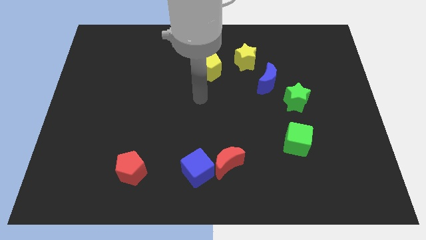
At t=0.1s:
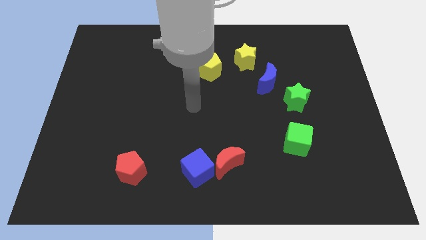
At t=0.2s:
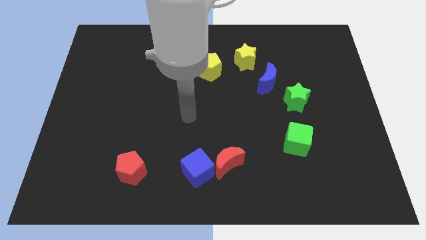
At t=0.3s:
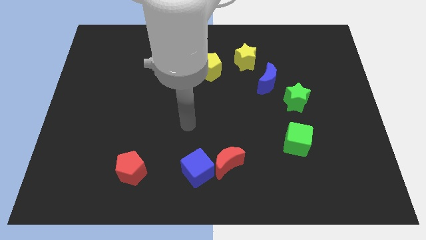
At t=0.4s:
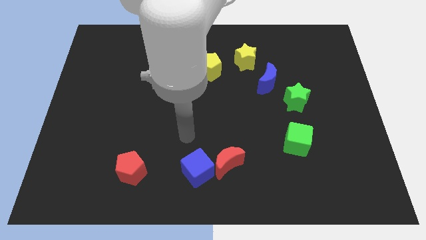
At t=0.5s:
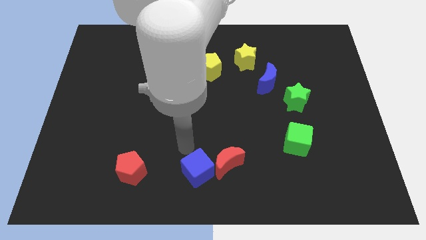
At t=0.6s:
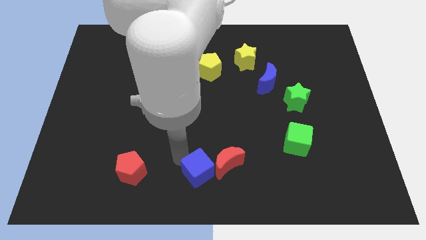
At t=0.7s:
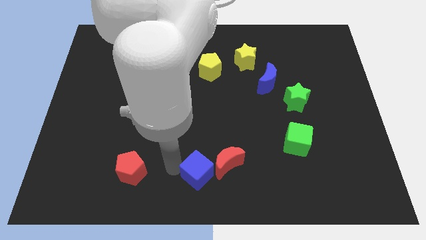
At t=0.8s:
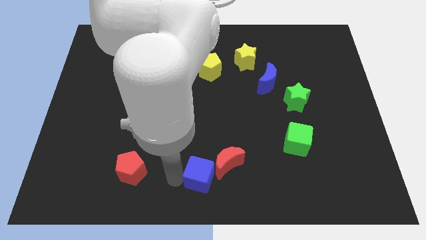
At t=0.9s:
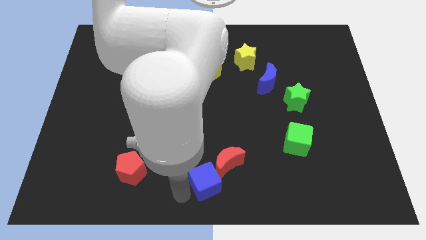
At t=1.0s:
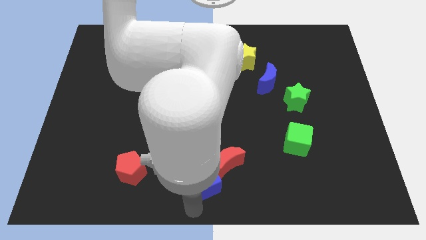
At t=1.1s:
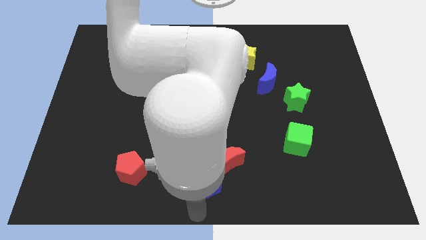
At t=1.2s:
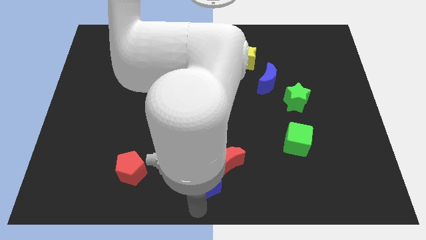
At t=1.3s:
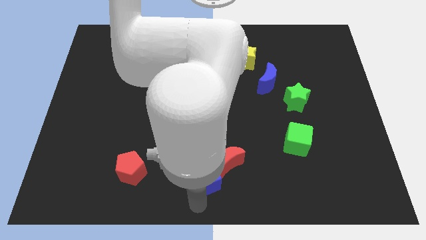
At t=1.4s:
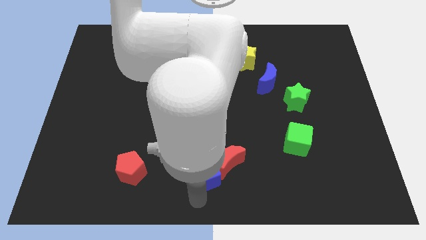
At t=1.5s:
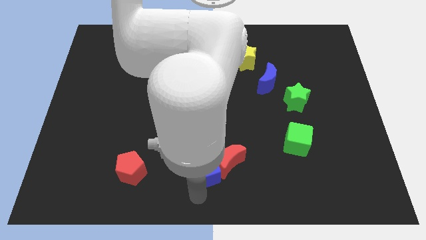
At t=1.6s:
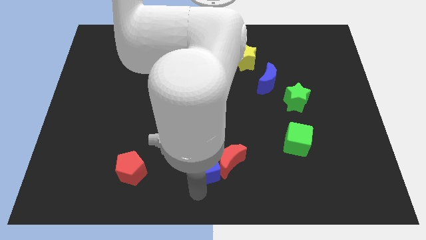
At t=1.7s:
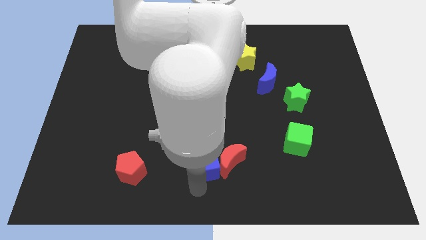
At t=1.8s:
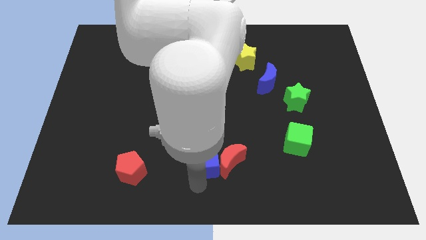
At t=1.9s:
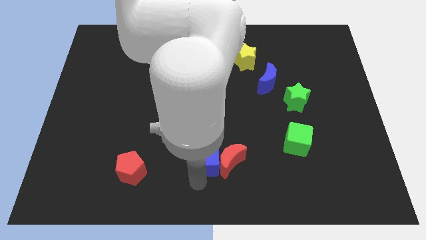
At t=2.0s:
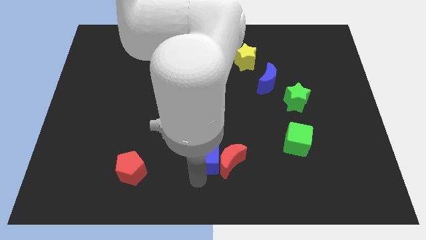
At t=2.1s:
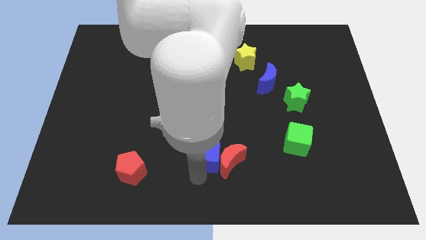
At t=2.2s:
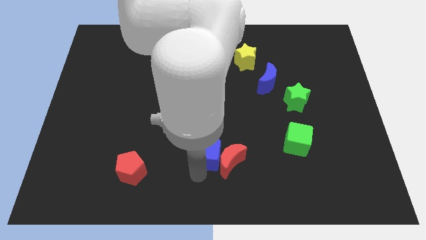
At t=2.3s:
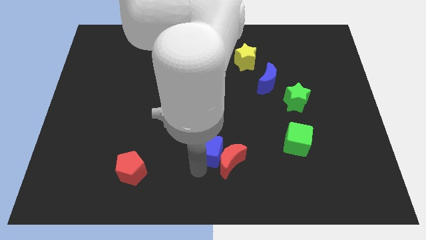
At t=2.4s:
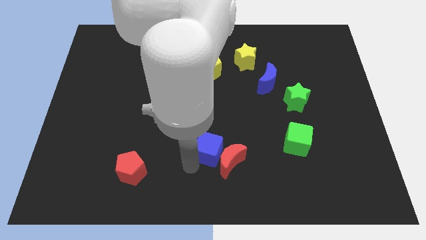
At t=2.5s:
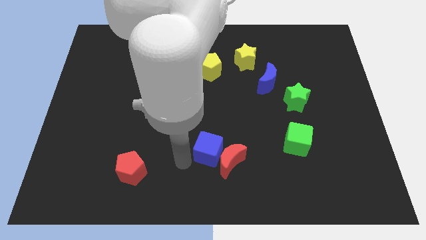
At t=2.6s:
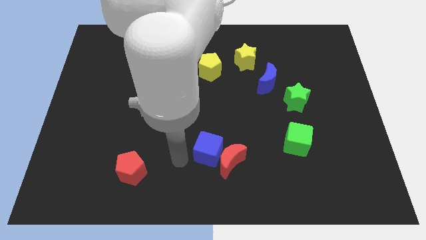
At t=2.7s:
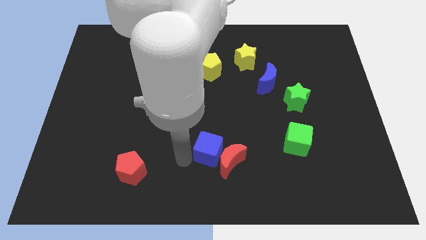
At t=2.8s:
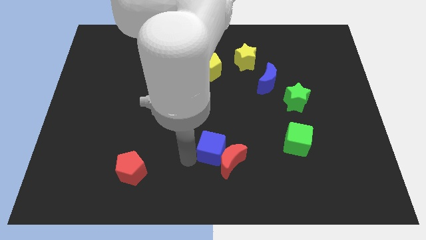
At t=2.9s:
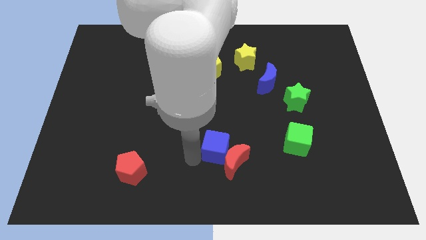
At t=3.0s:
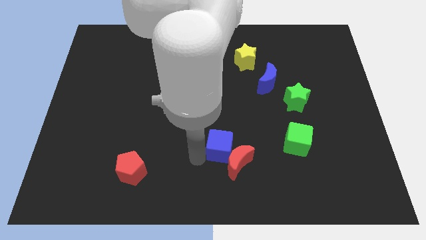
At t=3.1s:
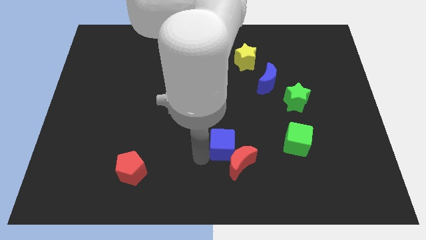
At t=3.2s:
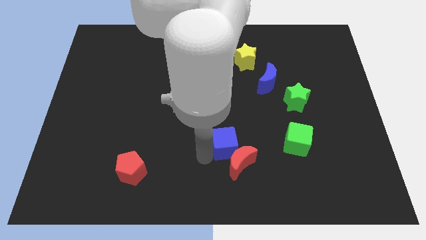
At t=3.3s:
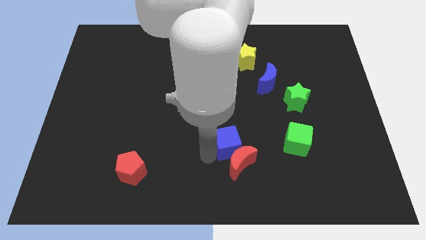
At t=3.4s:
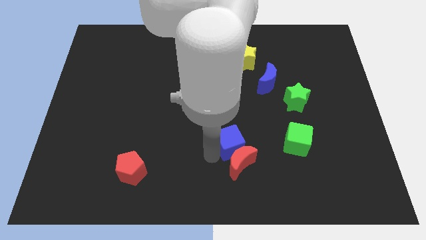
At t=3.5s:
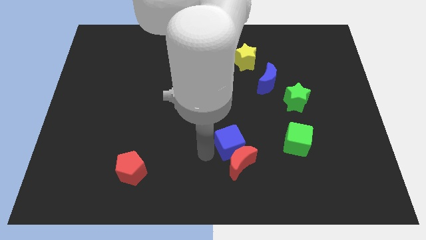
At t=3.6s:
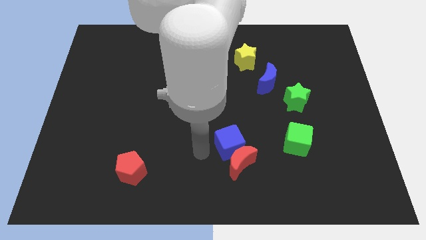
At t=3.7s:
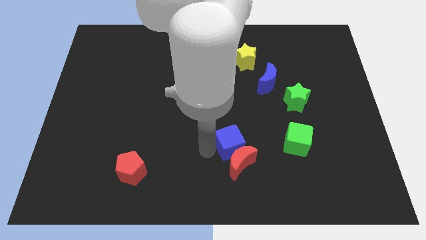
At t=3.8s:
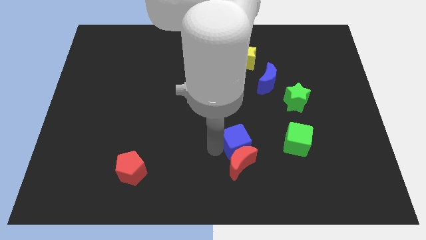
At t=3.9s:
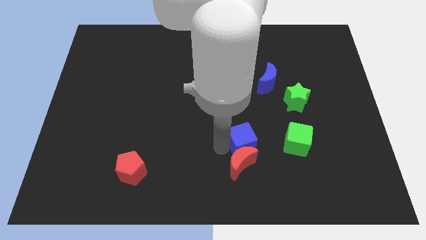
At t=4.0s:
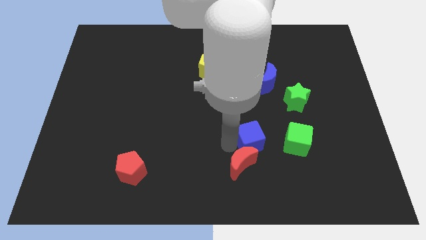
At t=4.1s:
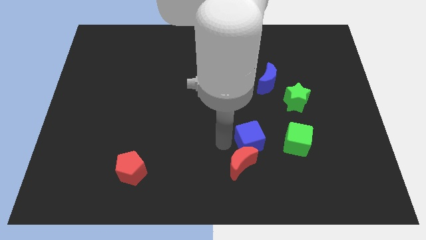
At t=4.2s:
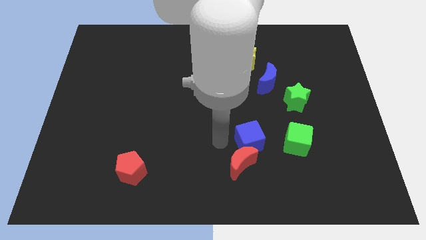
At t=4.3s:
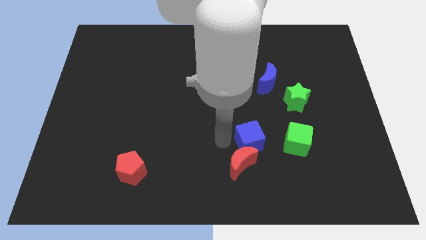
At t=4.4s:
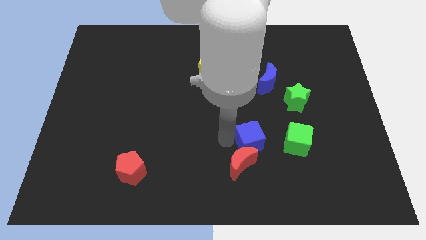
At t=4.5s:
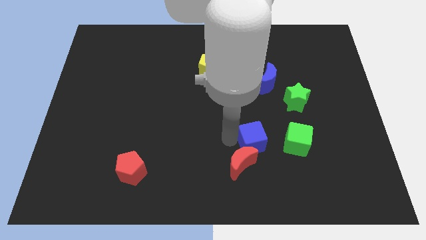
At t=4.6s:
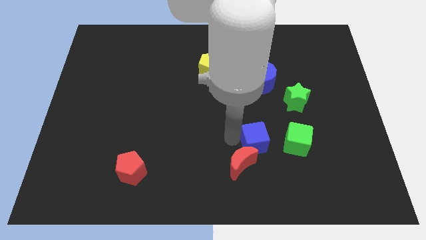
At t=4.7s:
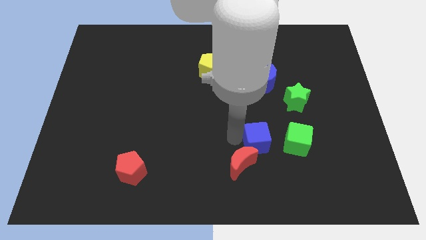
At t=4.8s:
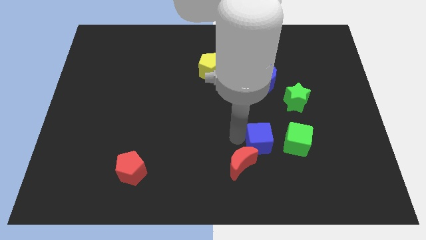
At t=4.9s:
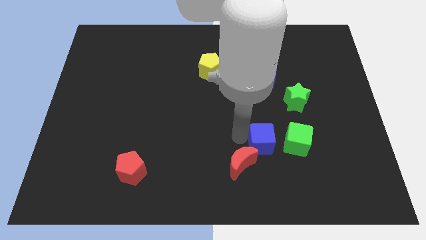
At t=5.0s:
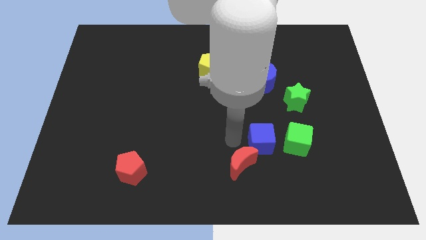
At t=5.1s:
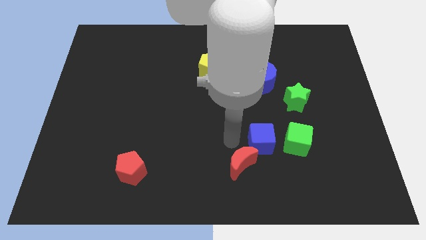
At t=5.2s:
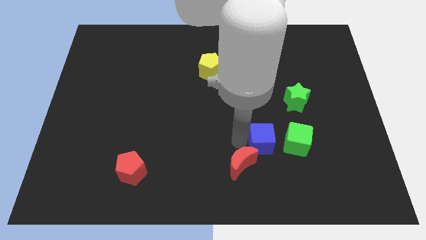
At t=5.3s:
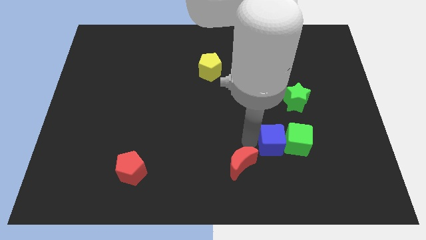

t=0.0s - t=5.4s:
put the blue cube towards the green cube
